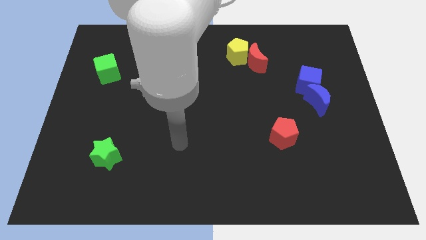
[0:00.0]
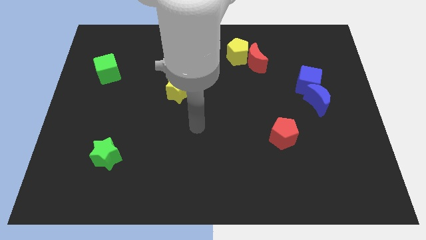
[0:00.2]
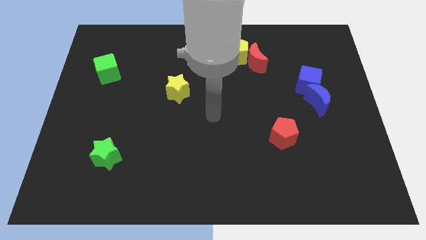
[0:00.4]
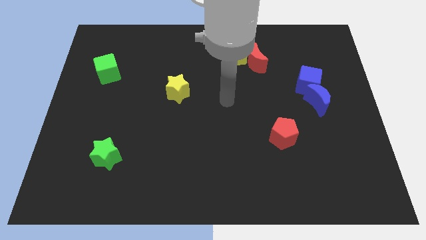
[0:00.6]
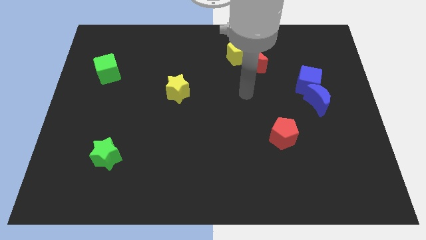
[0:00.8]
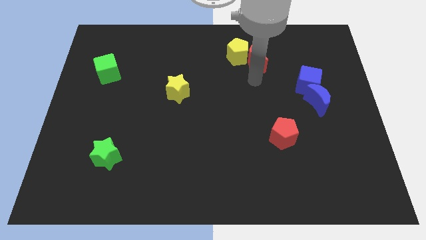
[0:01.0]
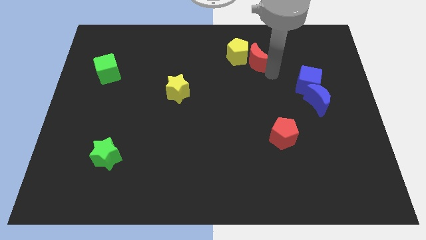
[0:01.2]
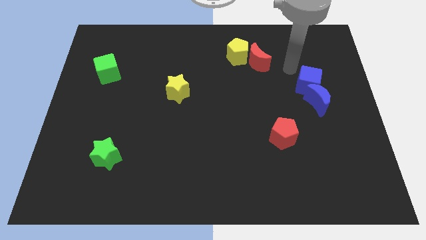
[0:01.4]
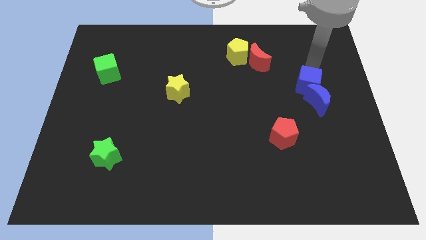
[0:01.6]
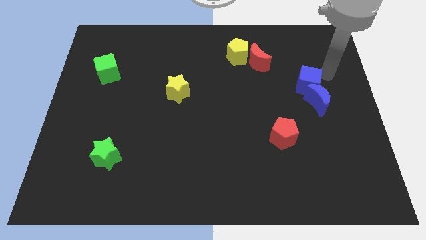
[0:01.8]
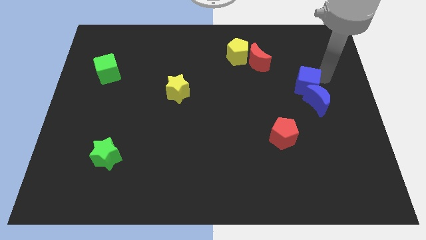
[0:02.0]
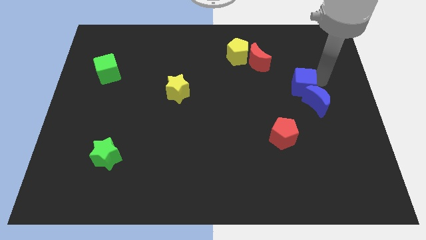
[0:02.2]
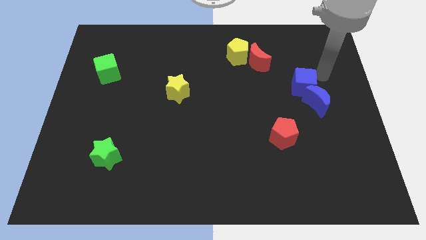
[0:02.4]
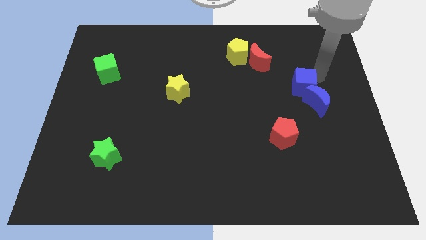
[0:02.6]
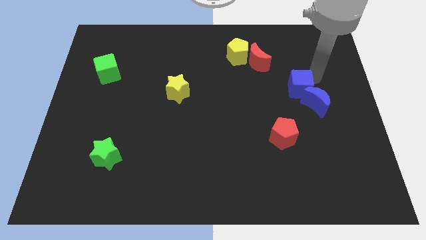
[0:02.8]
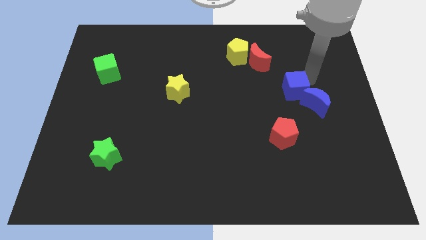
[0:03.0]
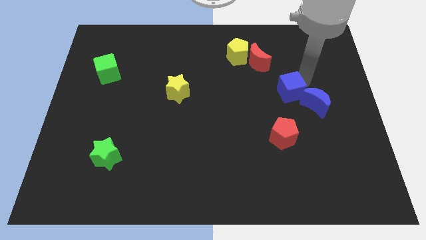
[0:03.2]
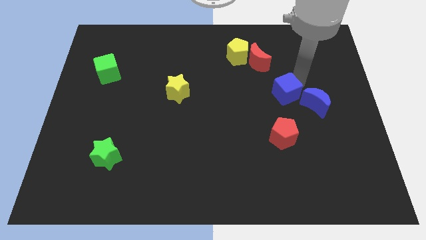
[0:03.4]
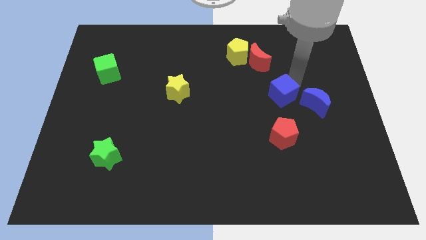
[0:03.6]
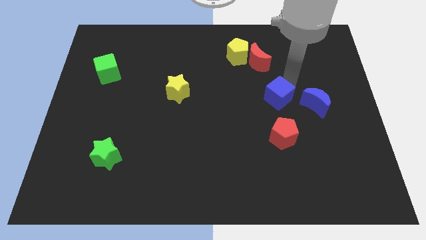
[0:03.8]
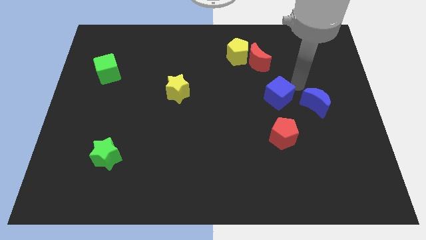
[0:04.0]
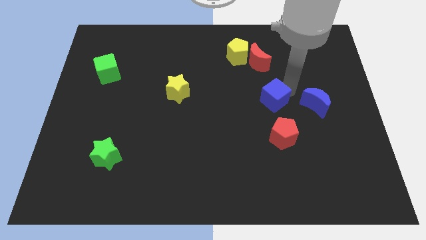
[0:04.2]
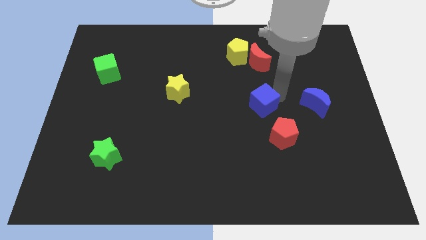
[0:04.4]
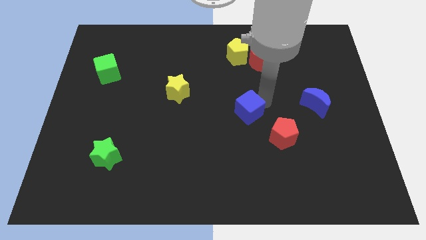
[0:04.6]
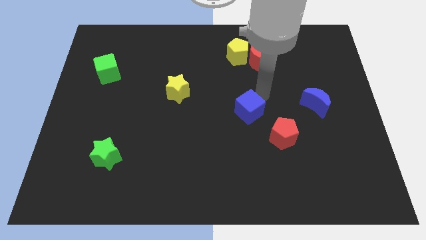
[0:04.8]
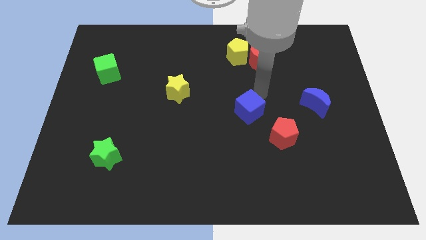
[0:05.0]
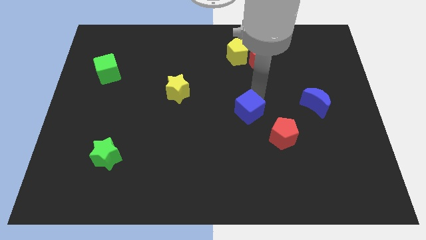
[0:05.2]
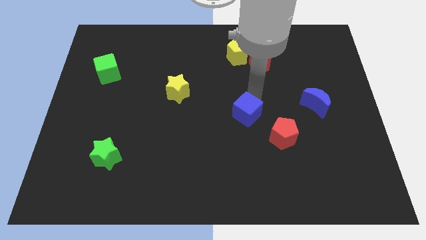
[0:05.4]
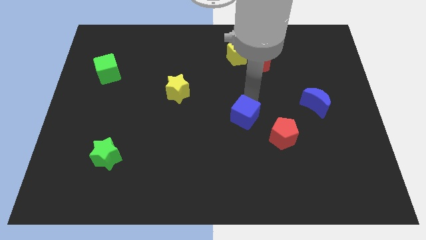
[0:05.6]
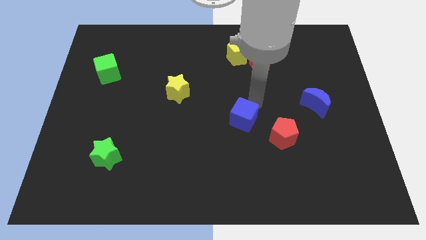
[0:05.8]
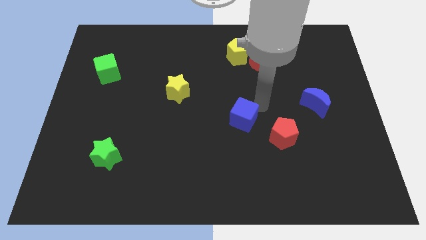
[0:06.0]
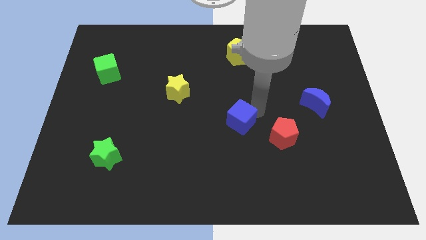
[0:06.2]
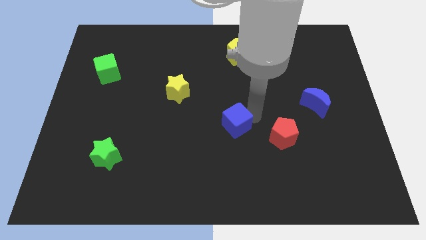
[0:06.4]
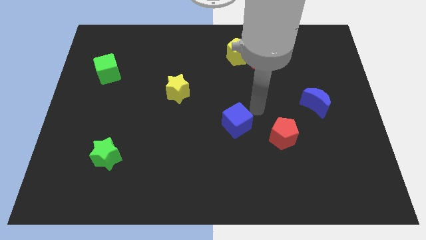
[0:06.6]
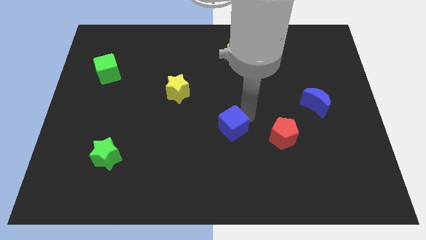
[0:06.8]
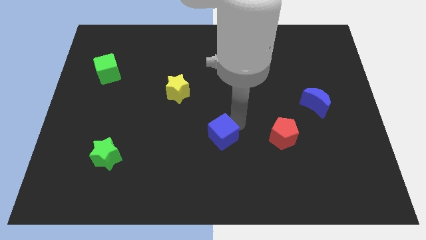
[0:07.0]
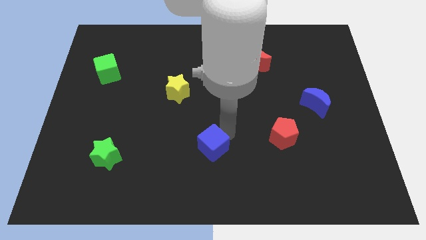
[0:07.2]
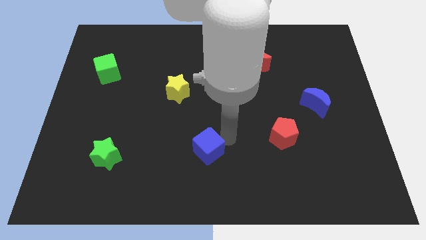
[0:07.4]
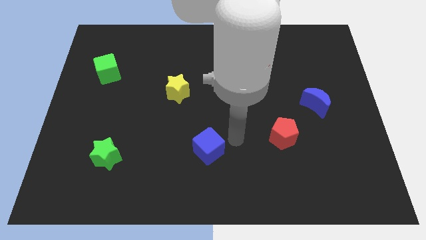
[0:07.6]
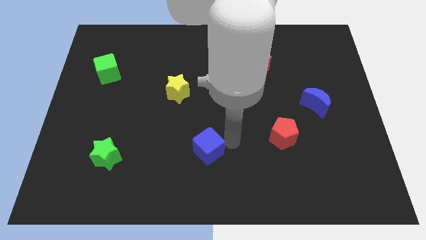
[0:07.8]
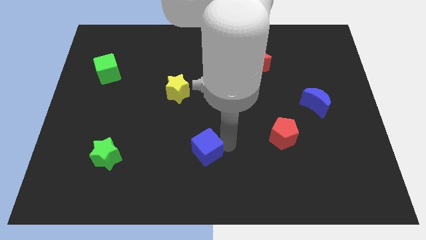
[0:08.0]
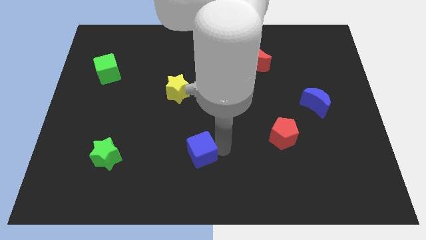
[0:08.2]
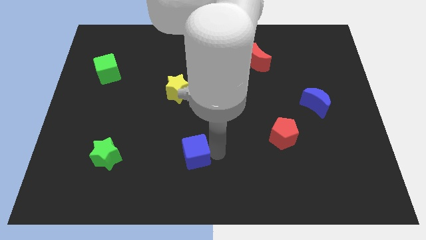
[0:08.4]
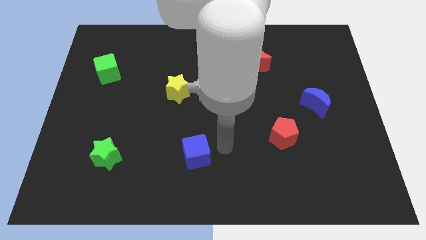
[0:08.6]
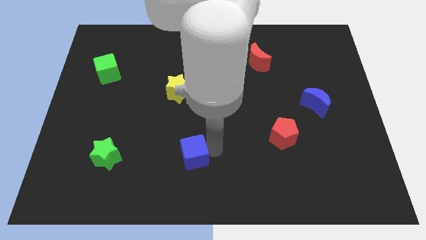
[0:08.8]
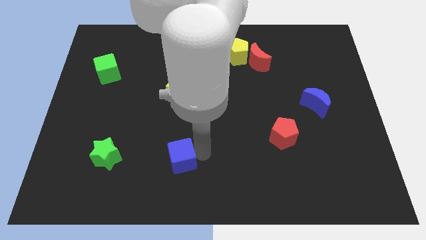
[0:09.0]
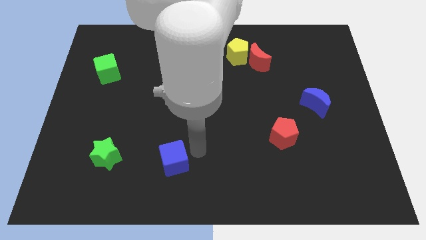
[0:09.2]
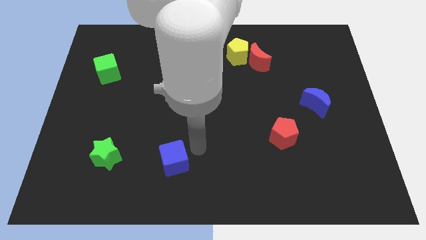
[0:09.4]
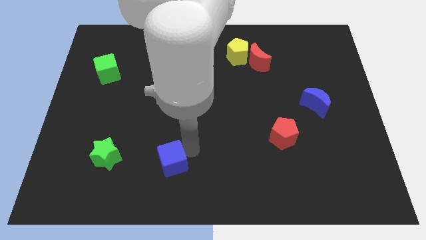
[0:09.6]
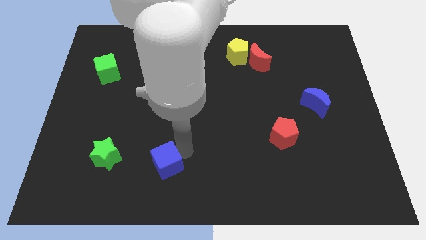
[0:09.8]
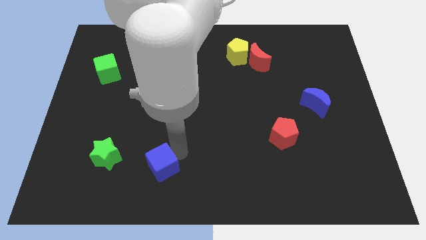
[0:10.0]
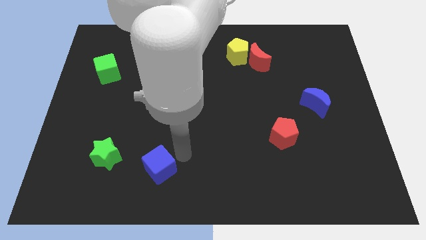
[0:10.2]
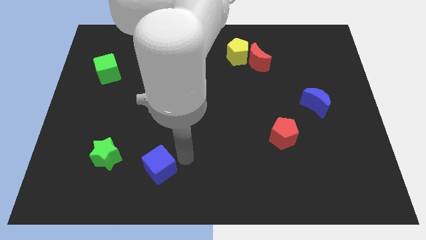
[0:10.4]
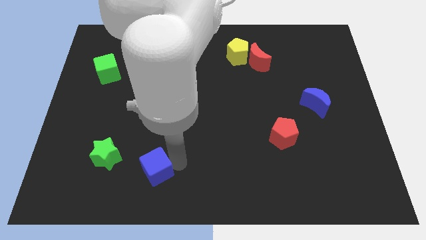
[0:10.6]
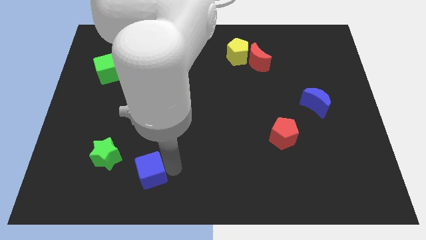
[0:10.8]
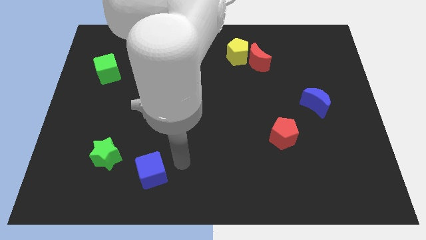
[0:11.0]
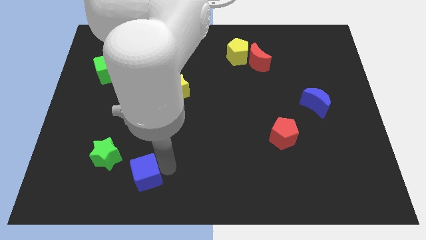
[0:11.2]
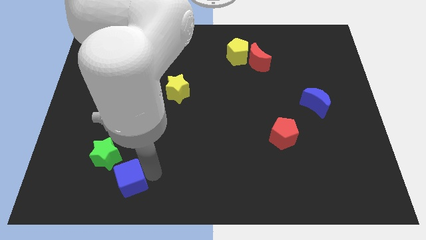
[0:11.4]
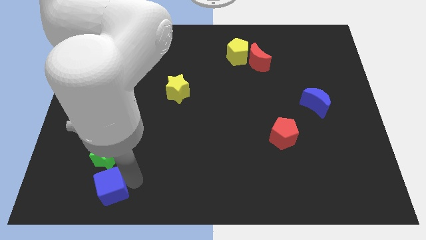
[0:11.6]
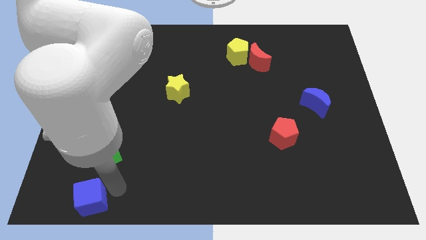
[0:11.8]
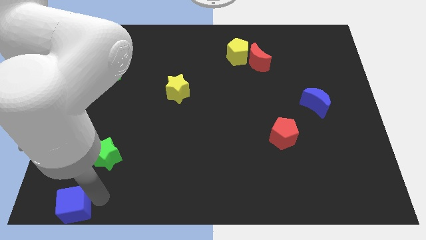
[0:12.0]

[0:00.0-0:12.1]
push the blue cube to the bottom left of the board

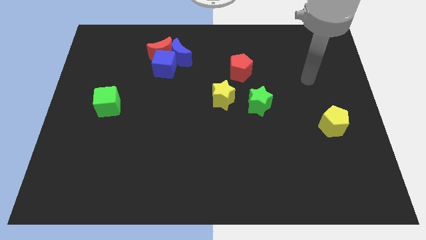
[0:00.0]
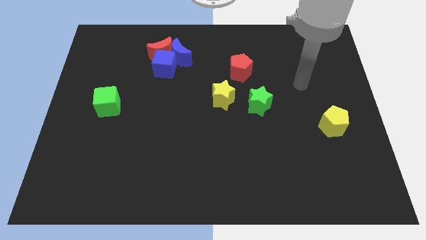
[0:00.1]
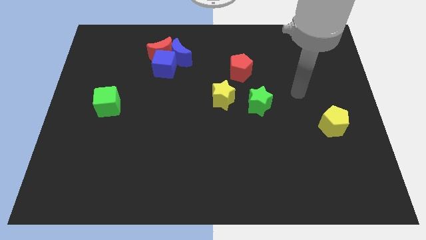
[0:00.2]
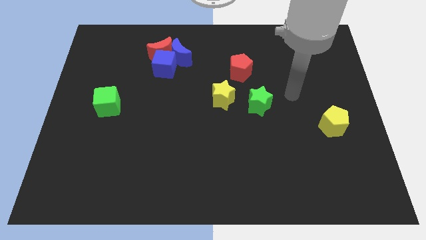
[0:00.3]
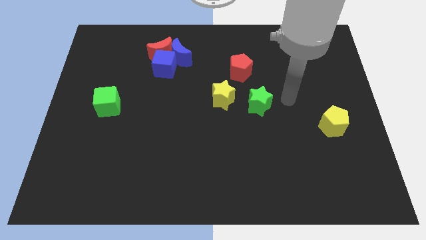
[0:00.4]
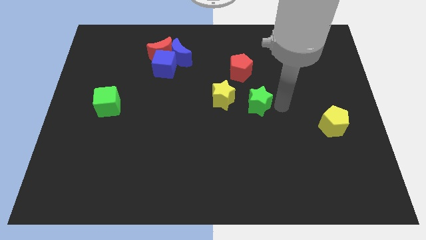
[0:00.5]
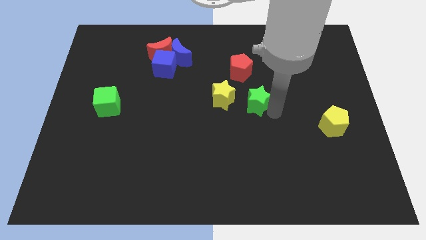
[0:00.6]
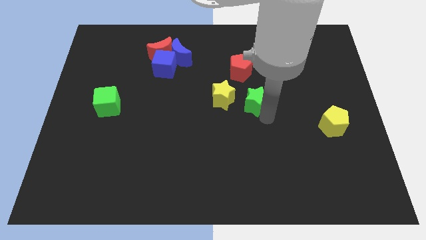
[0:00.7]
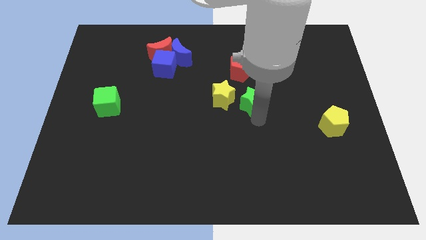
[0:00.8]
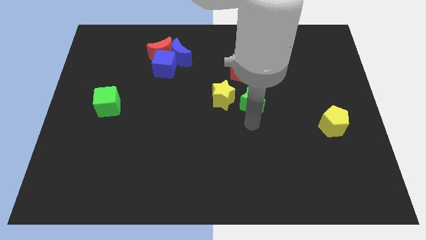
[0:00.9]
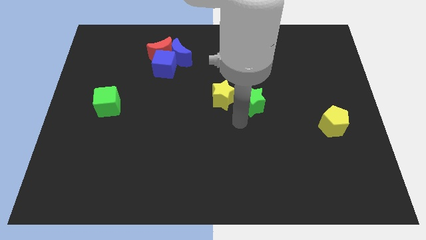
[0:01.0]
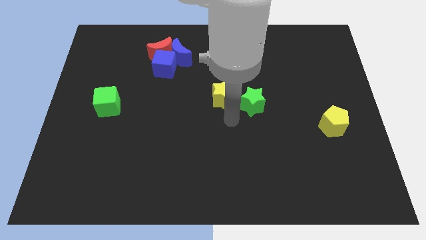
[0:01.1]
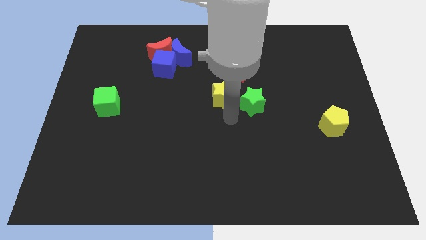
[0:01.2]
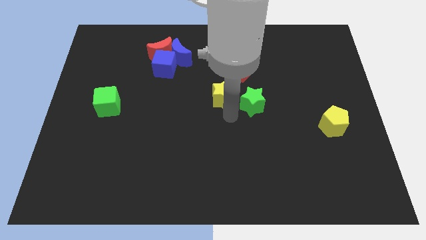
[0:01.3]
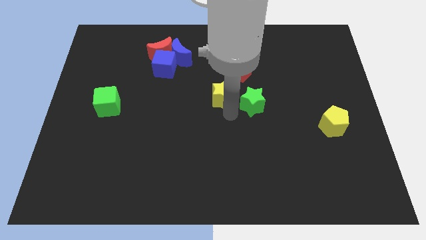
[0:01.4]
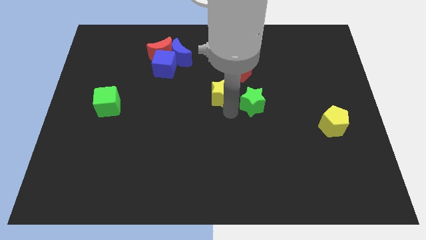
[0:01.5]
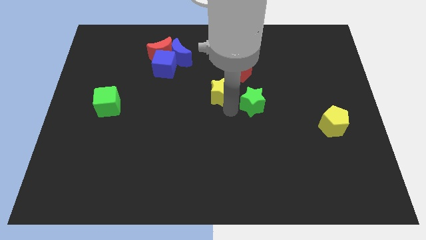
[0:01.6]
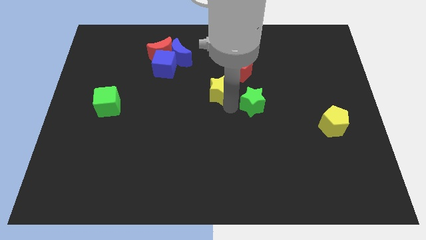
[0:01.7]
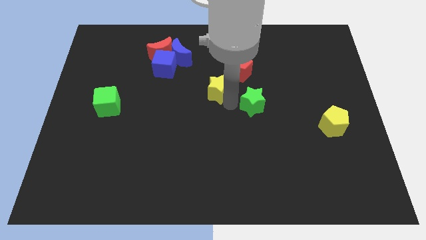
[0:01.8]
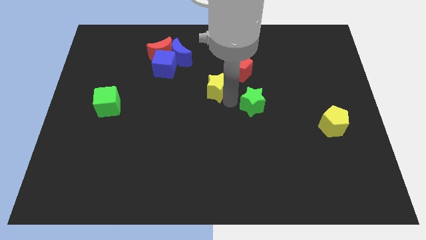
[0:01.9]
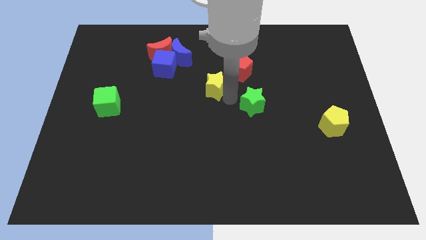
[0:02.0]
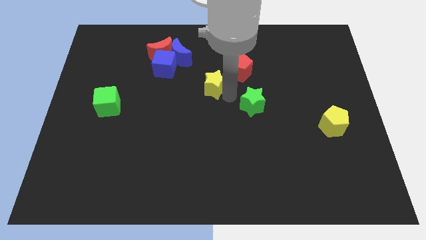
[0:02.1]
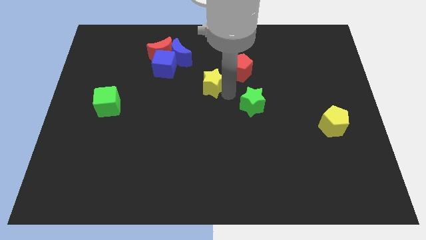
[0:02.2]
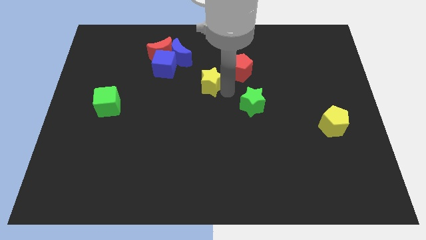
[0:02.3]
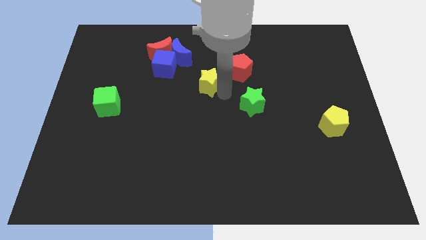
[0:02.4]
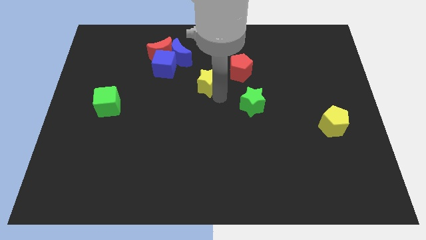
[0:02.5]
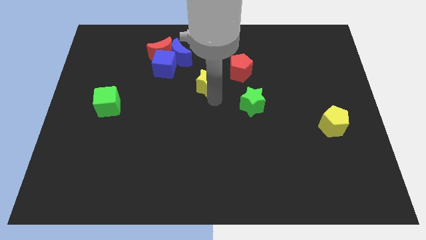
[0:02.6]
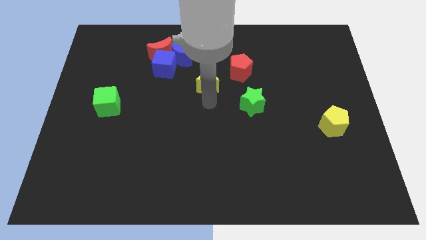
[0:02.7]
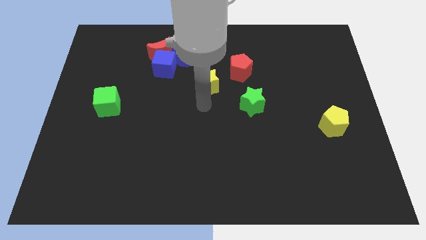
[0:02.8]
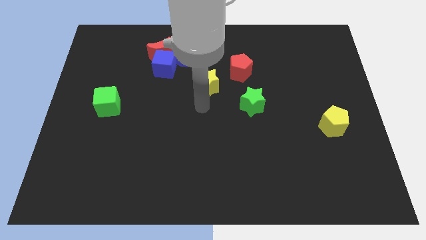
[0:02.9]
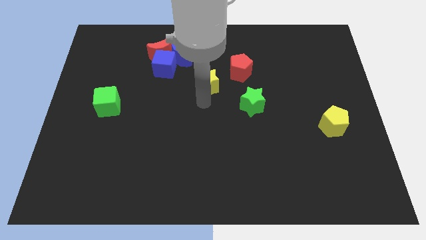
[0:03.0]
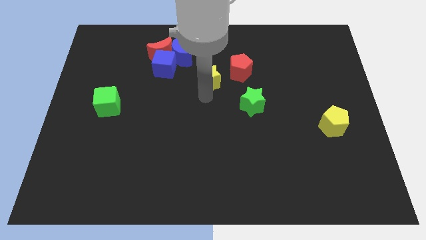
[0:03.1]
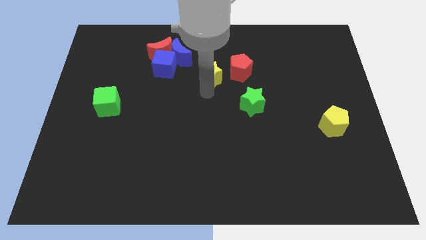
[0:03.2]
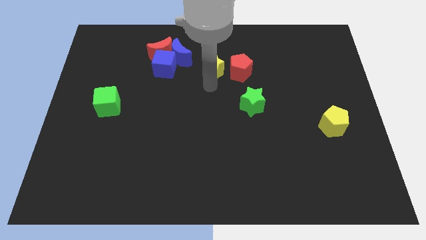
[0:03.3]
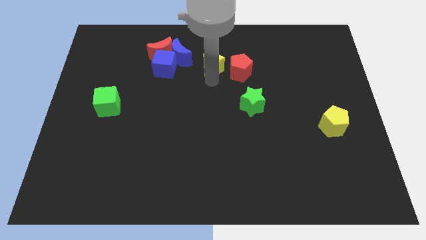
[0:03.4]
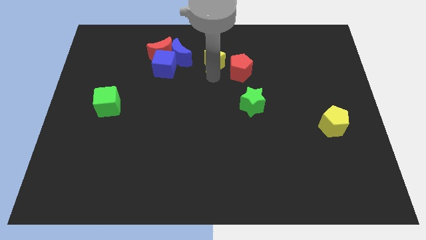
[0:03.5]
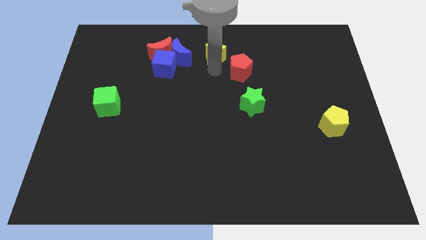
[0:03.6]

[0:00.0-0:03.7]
move the yellow star to the top
